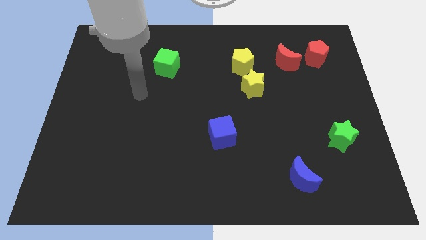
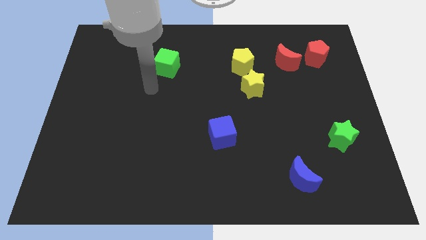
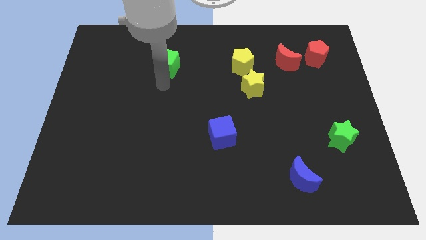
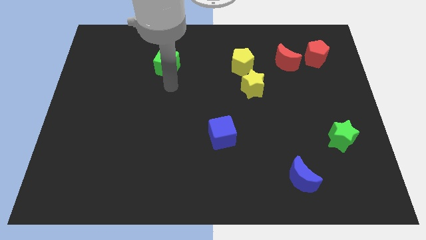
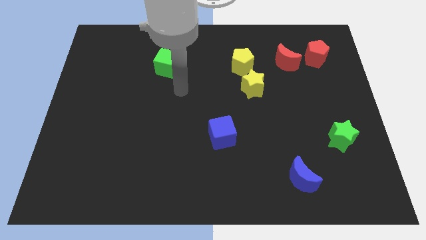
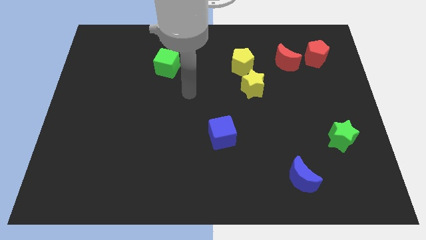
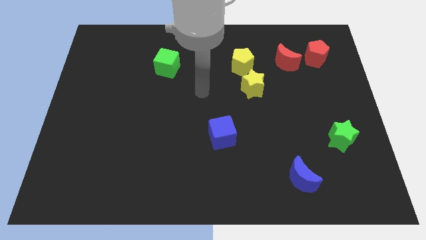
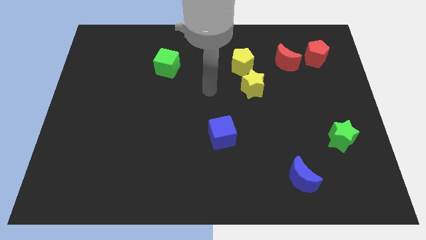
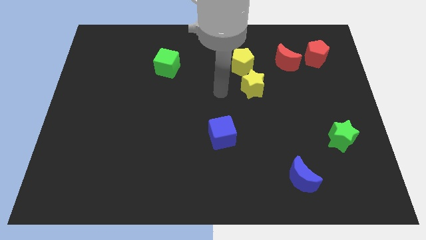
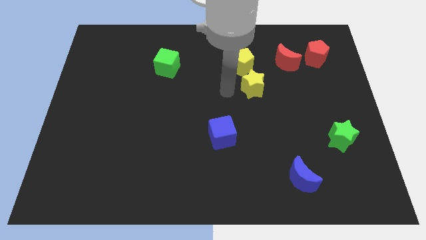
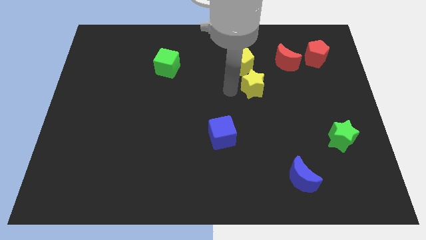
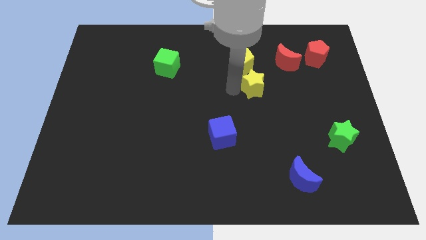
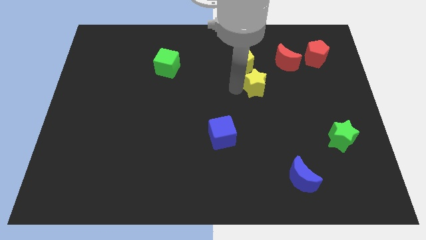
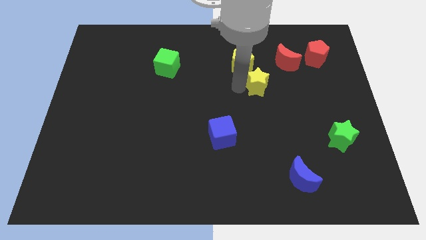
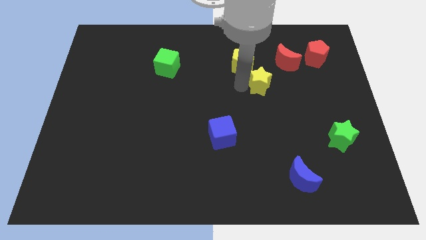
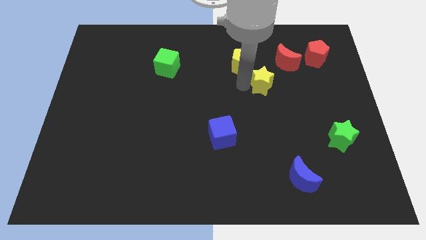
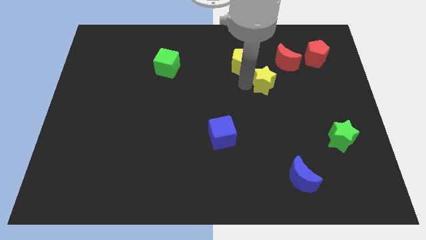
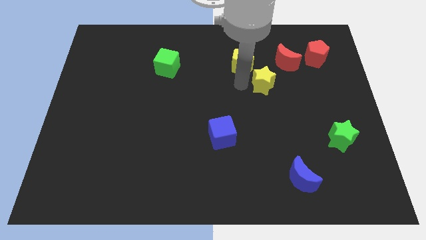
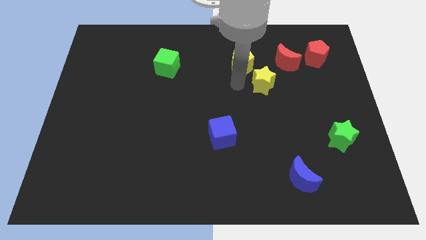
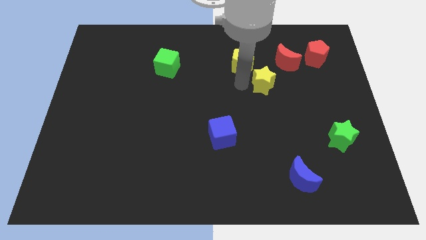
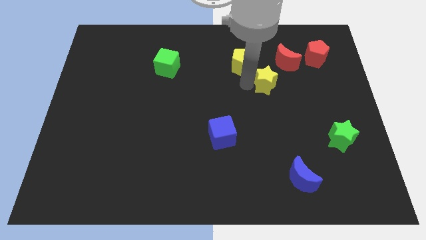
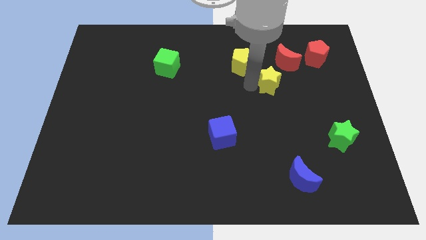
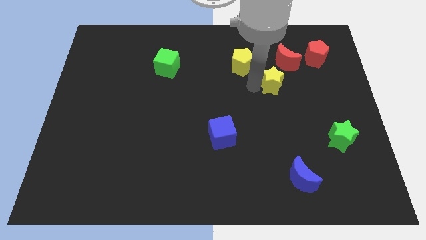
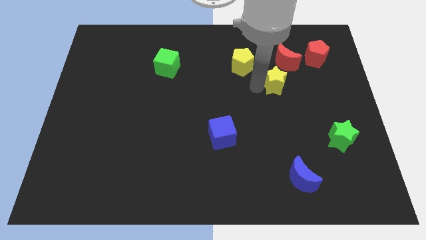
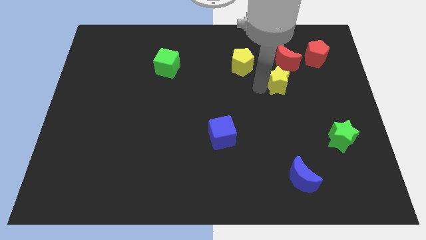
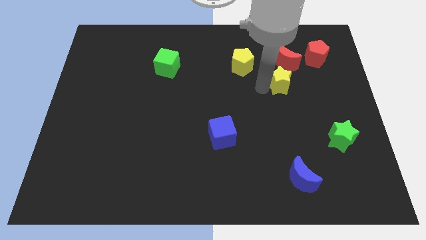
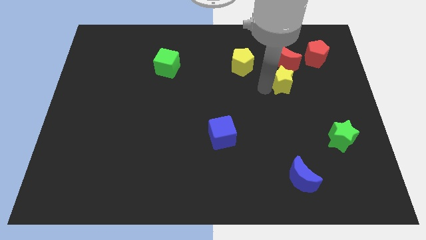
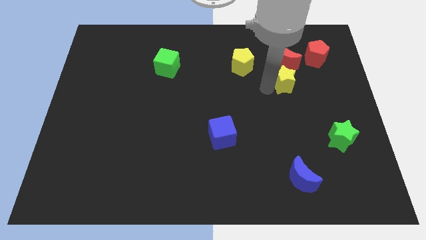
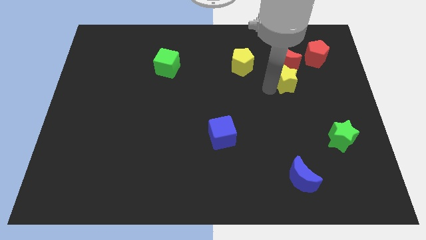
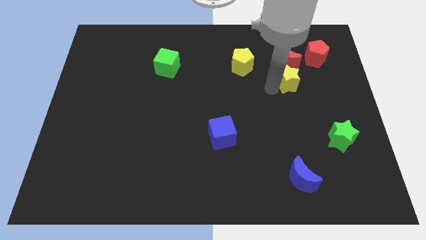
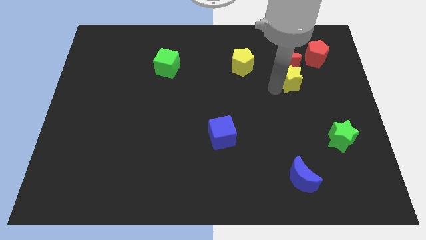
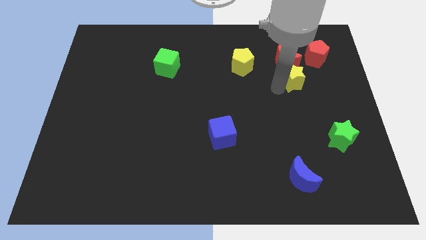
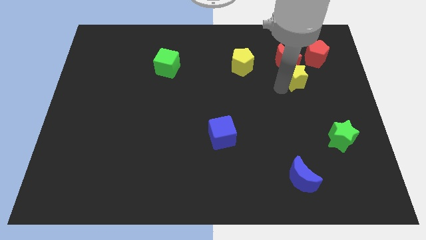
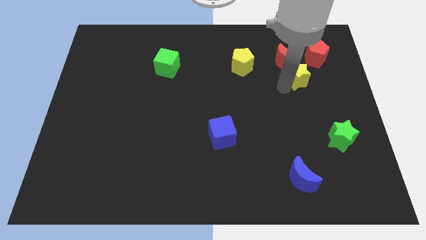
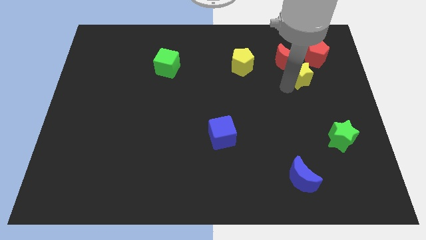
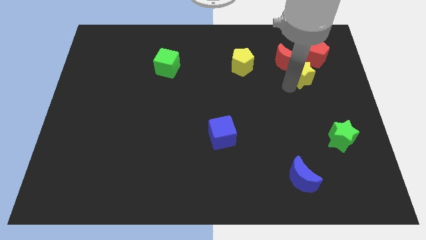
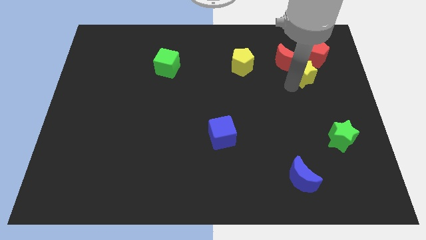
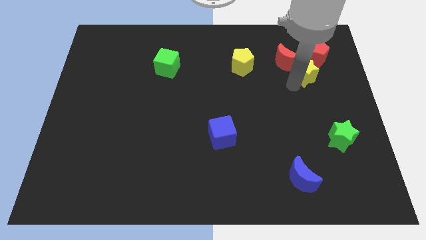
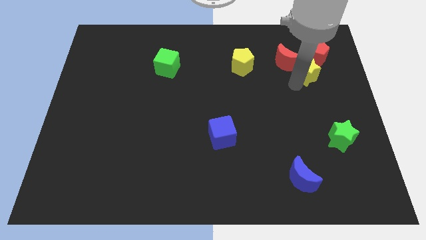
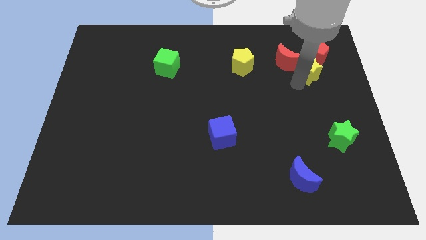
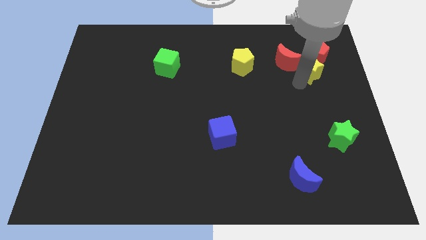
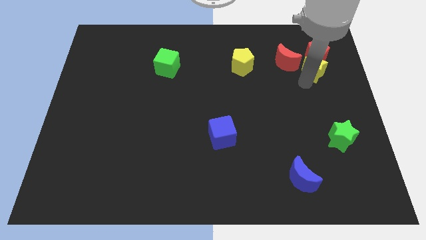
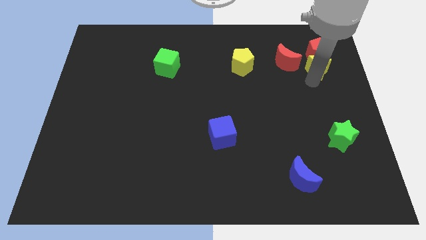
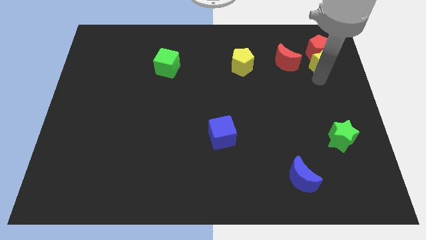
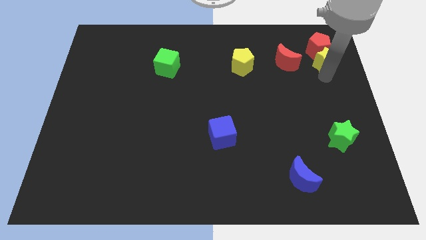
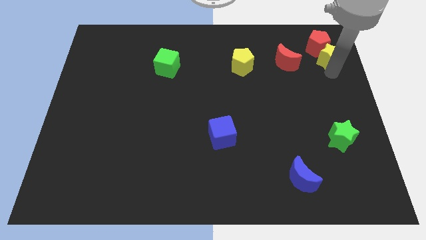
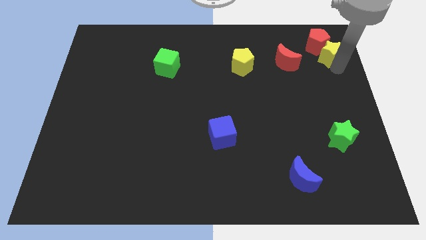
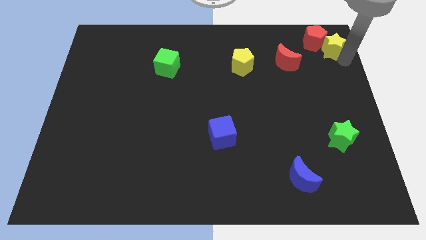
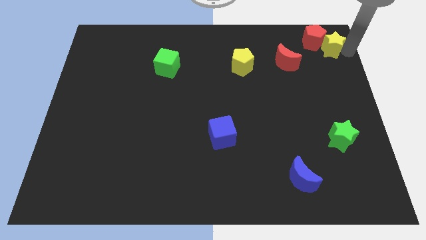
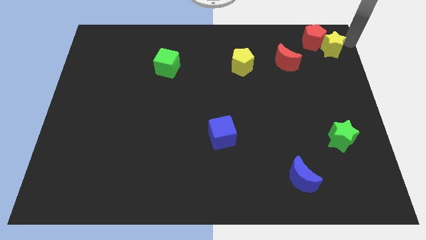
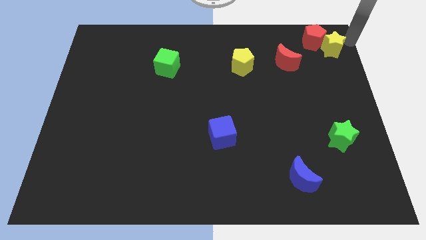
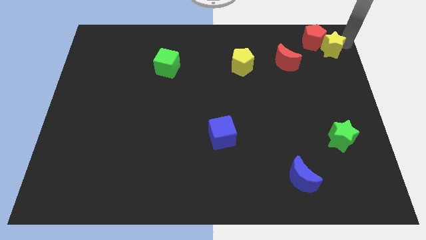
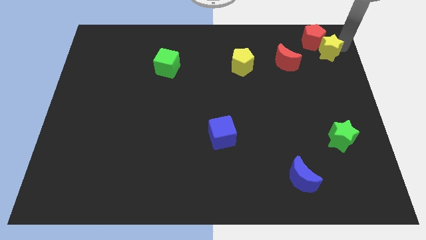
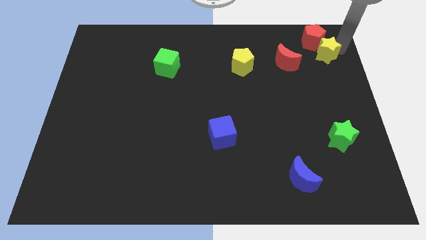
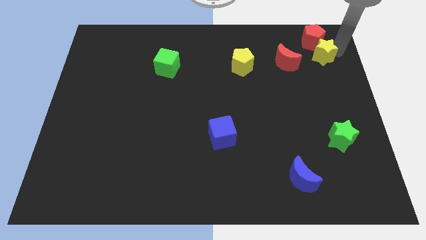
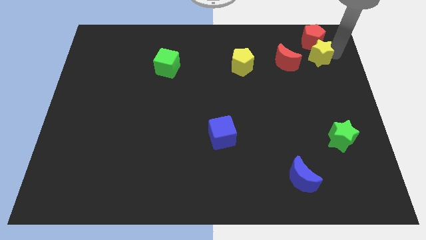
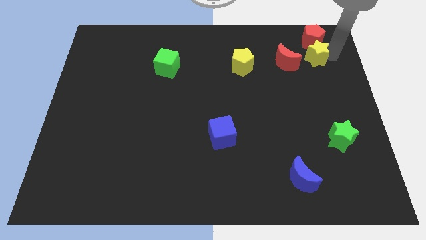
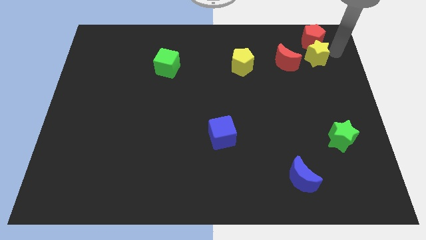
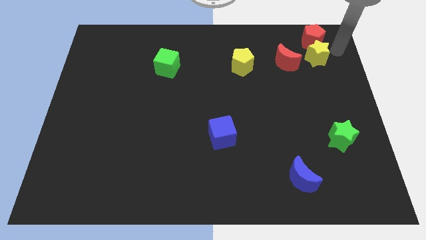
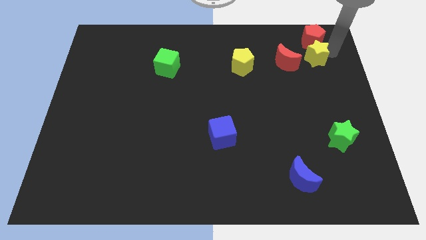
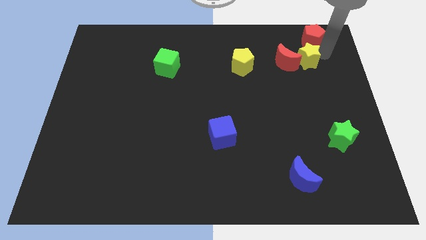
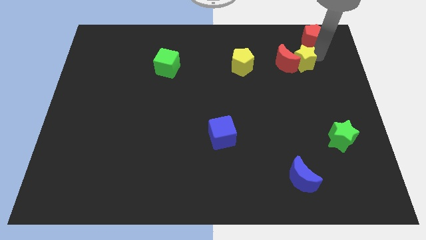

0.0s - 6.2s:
put the yellow star right of the yellow pentagon
